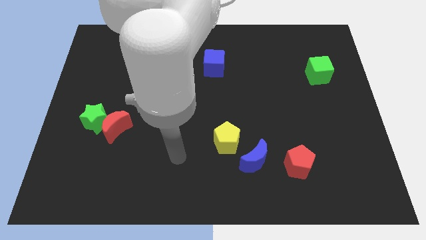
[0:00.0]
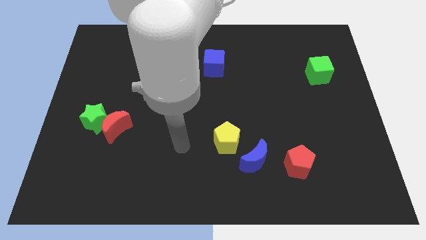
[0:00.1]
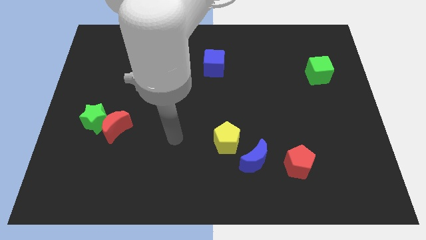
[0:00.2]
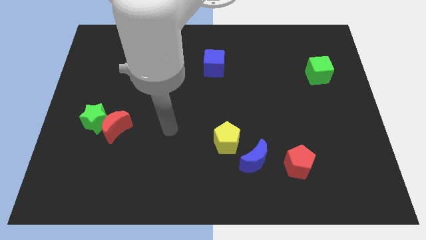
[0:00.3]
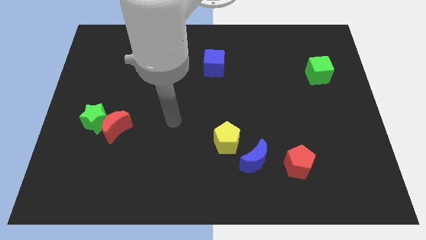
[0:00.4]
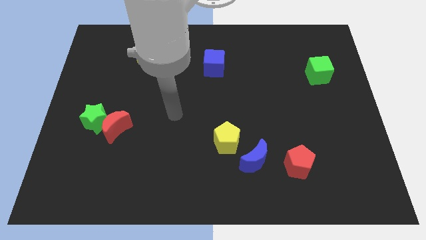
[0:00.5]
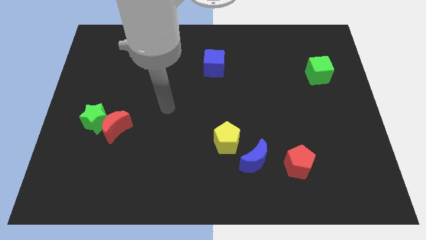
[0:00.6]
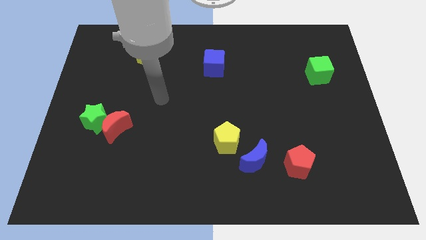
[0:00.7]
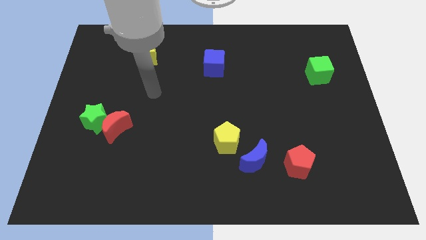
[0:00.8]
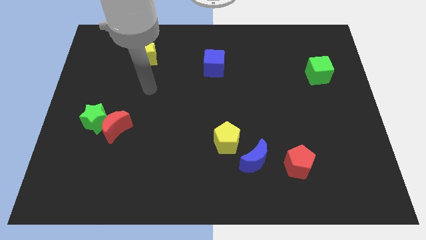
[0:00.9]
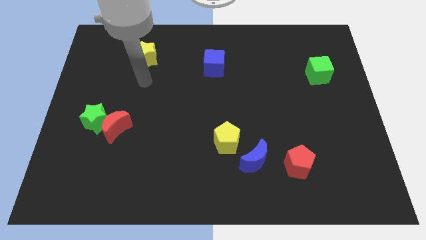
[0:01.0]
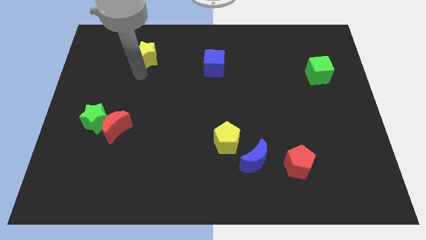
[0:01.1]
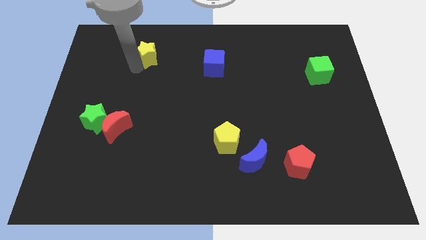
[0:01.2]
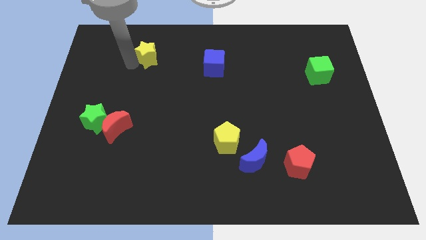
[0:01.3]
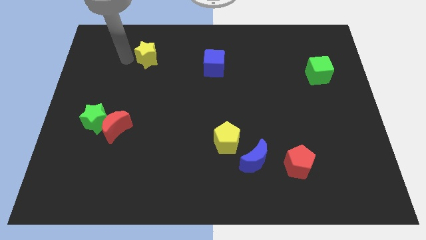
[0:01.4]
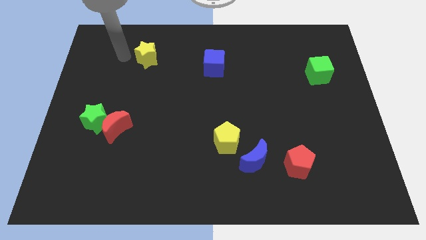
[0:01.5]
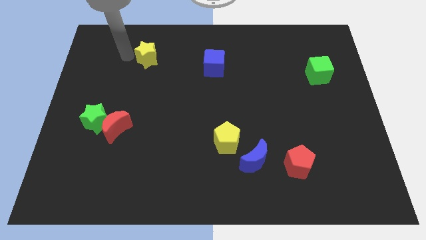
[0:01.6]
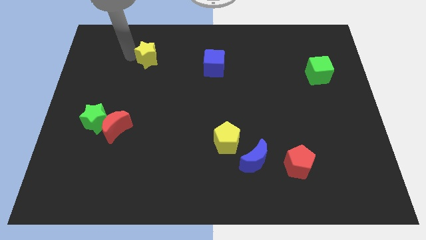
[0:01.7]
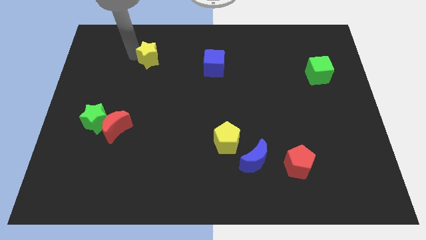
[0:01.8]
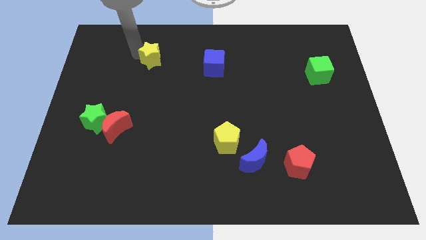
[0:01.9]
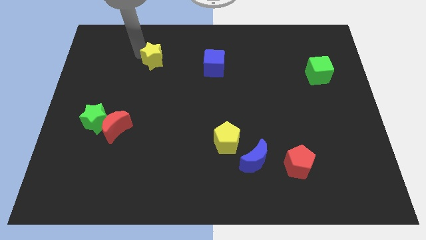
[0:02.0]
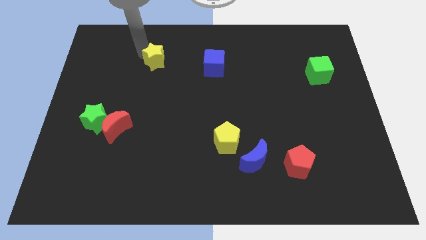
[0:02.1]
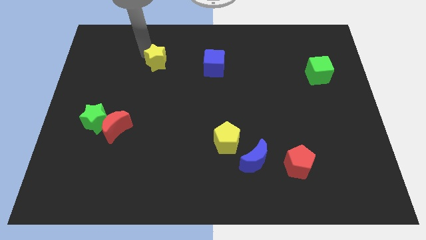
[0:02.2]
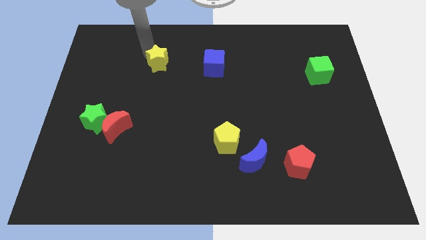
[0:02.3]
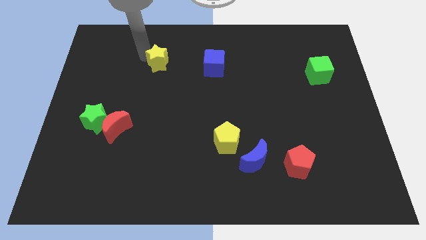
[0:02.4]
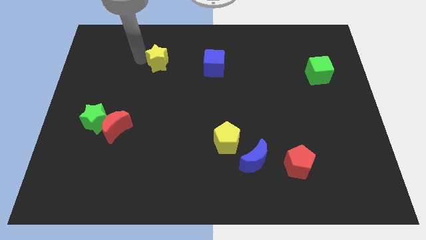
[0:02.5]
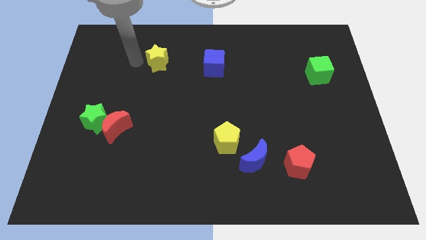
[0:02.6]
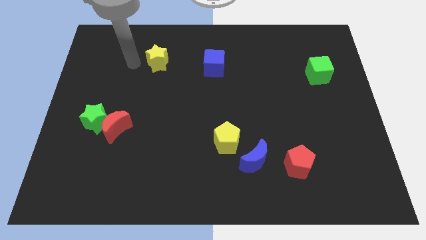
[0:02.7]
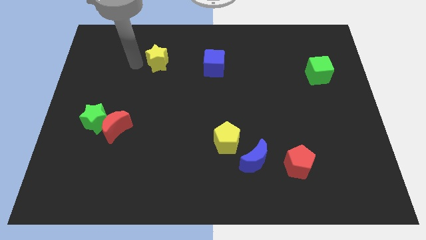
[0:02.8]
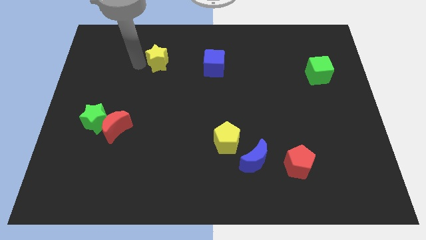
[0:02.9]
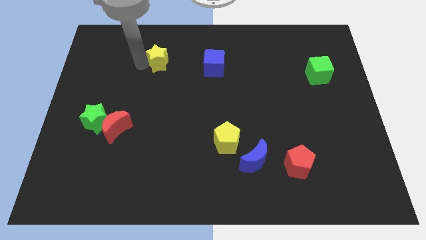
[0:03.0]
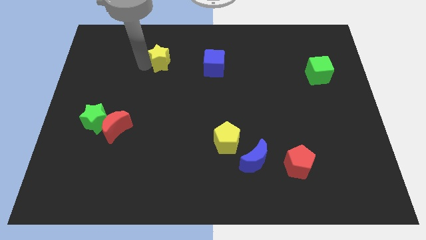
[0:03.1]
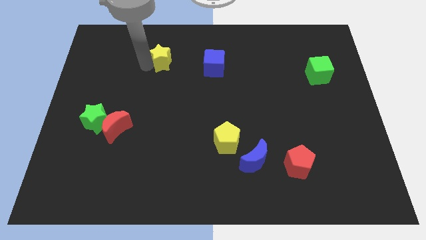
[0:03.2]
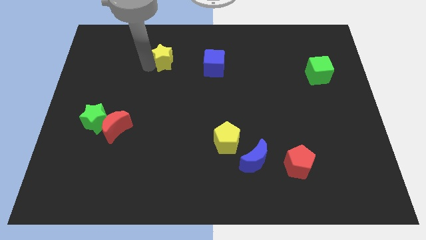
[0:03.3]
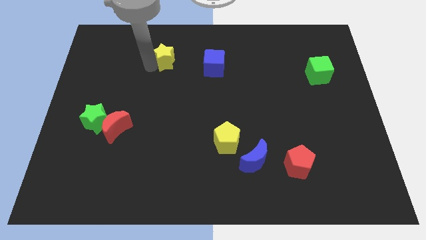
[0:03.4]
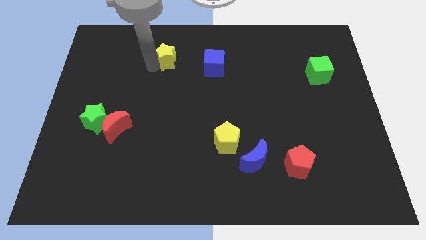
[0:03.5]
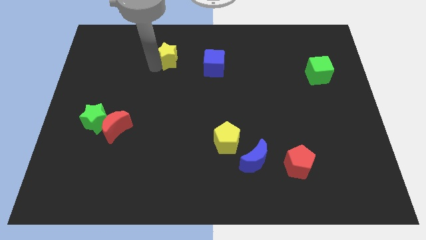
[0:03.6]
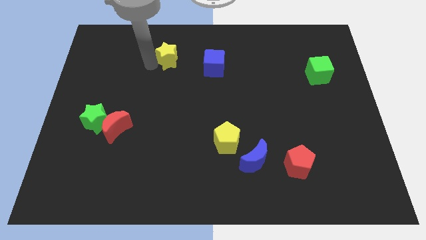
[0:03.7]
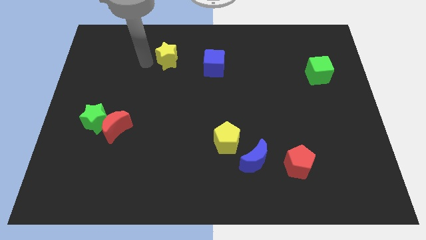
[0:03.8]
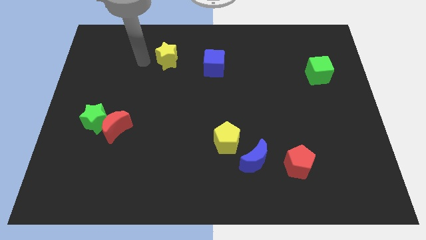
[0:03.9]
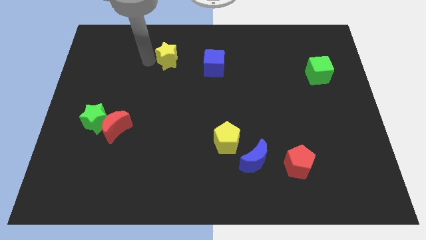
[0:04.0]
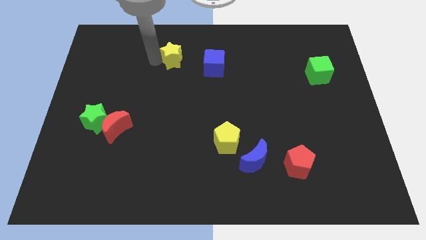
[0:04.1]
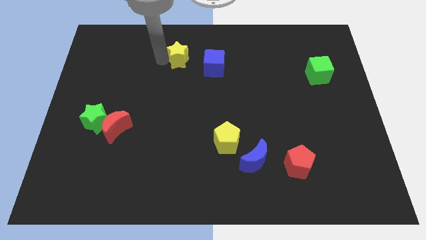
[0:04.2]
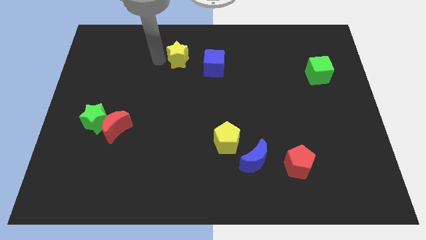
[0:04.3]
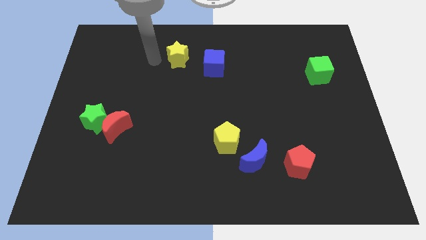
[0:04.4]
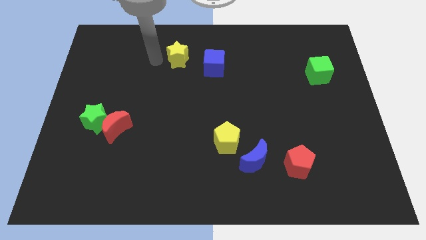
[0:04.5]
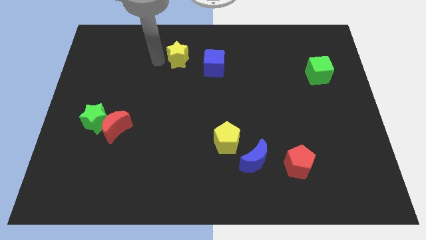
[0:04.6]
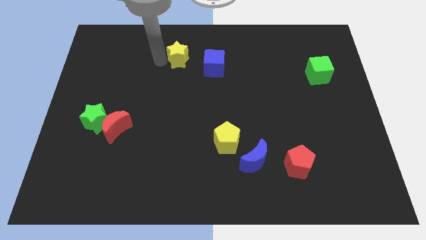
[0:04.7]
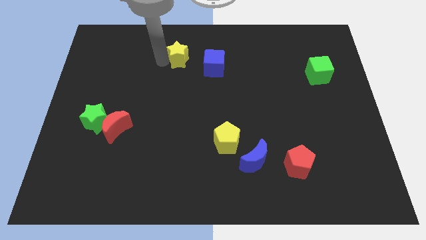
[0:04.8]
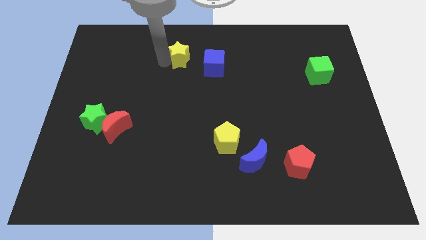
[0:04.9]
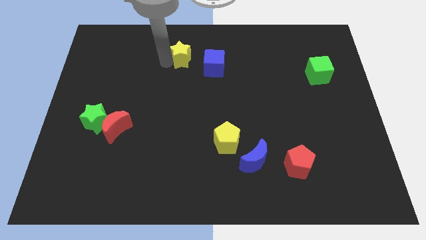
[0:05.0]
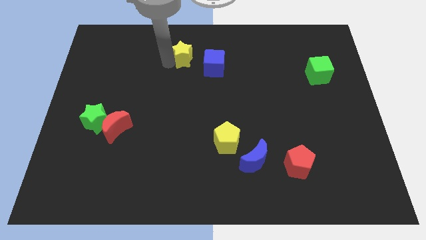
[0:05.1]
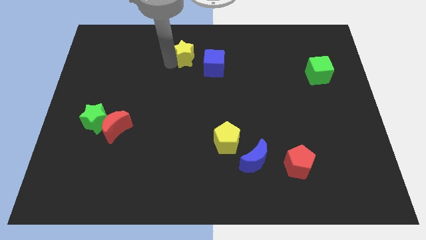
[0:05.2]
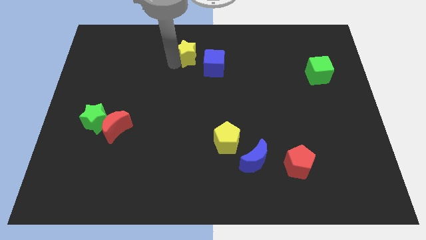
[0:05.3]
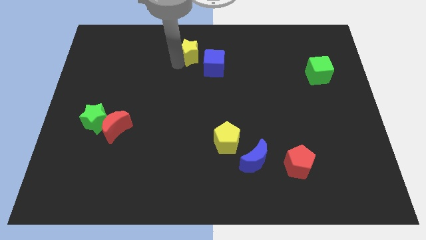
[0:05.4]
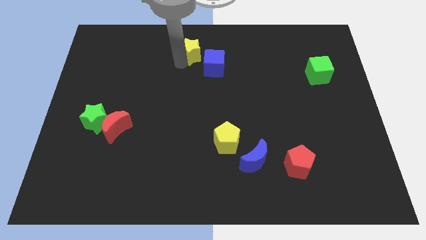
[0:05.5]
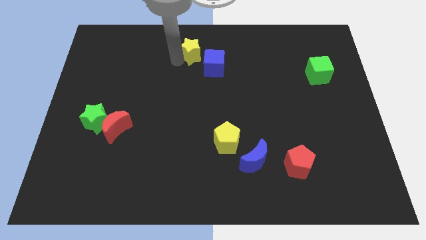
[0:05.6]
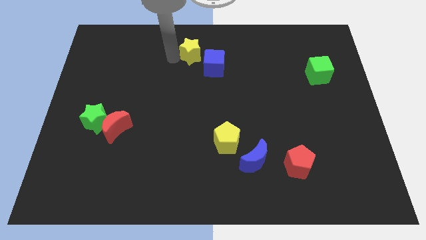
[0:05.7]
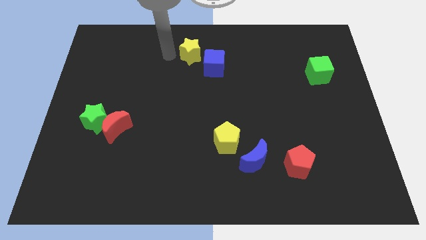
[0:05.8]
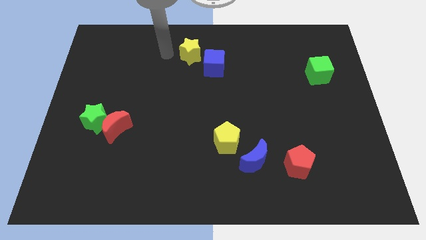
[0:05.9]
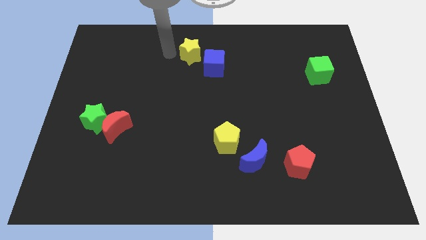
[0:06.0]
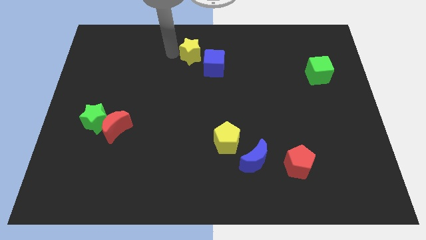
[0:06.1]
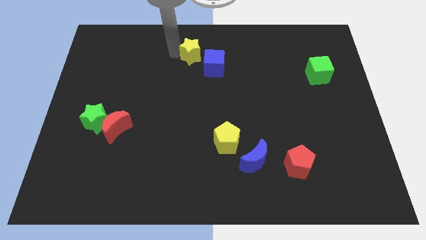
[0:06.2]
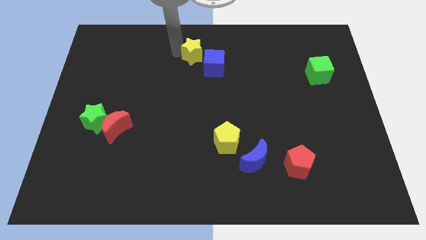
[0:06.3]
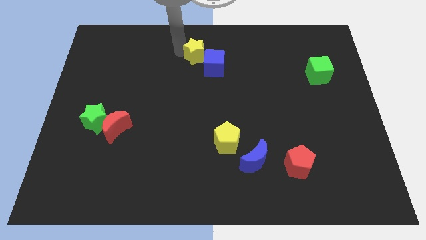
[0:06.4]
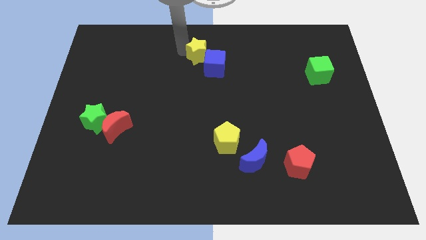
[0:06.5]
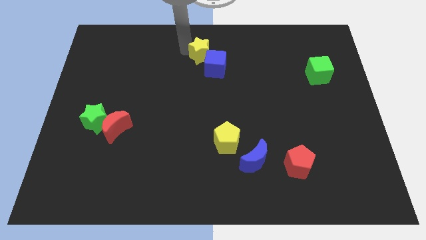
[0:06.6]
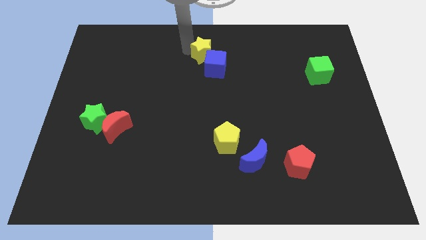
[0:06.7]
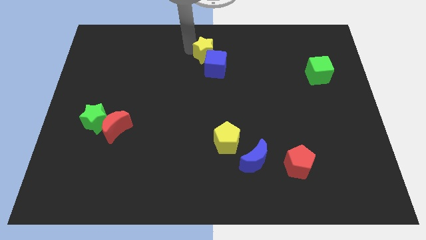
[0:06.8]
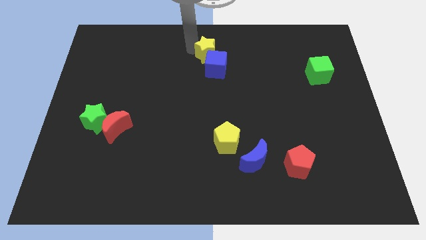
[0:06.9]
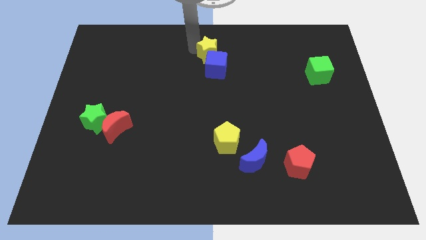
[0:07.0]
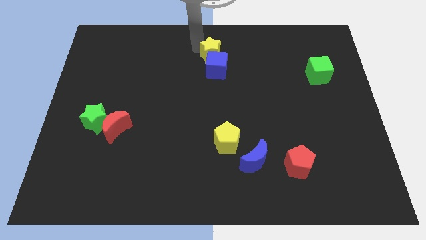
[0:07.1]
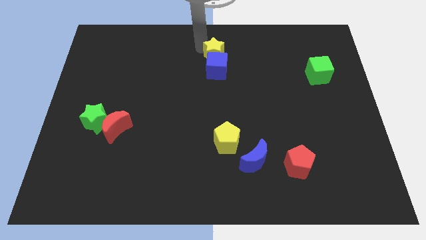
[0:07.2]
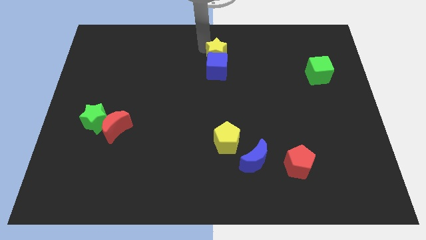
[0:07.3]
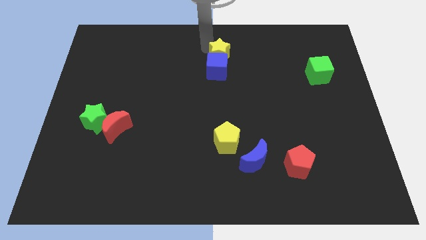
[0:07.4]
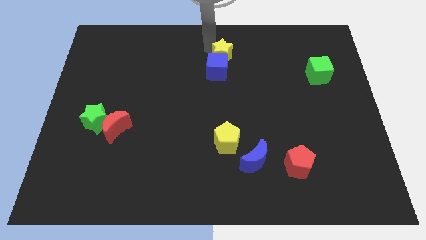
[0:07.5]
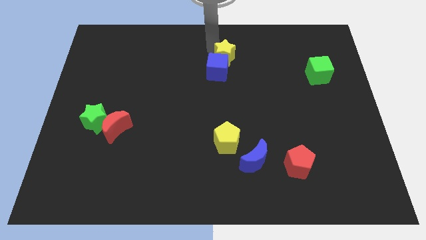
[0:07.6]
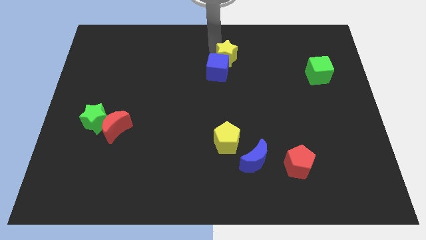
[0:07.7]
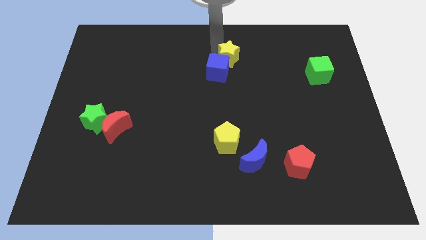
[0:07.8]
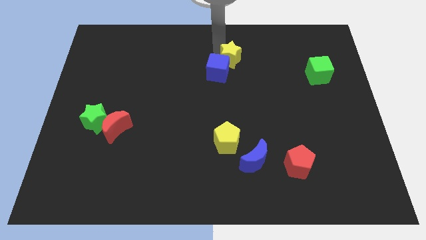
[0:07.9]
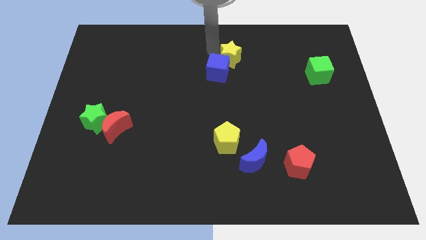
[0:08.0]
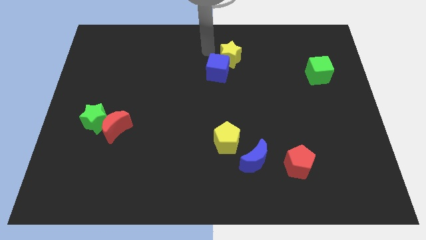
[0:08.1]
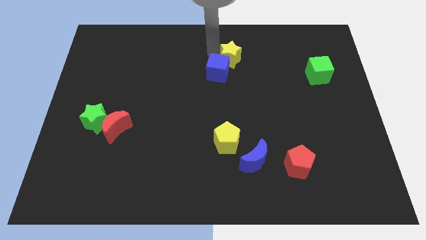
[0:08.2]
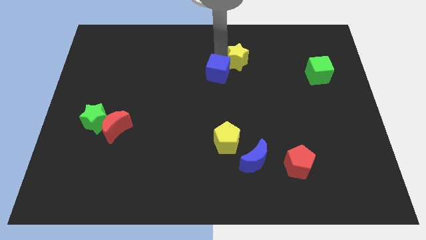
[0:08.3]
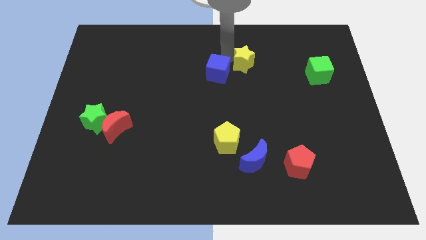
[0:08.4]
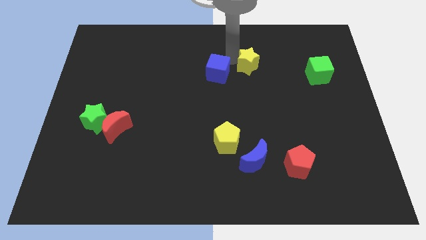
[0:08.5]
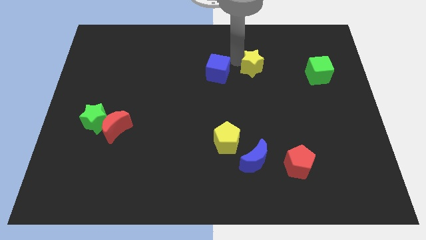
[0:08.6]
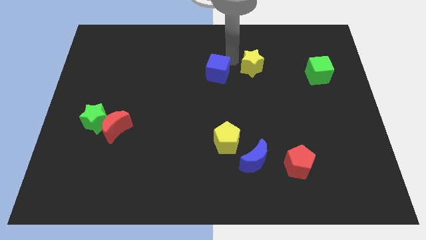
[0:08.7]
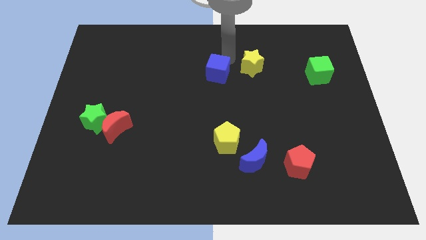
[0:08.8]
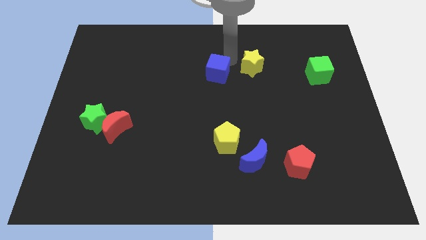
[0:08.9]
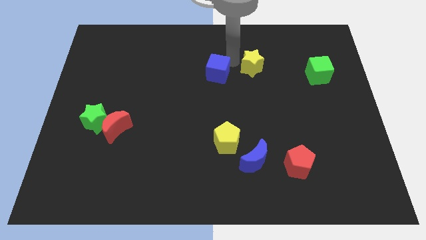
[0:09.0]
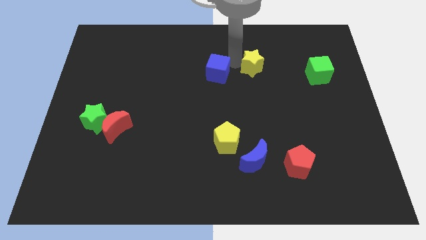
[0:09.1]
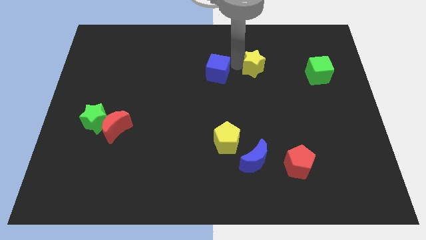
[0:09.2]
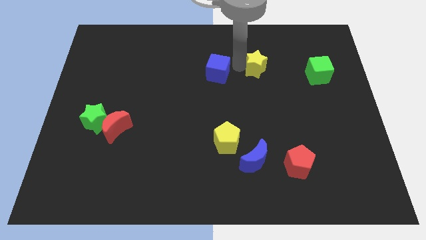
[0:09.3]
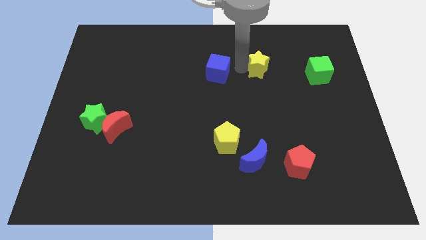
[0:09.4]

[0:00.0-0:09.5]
slide the yellow star to the left side of the green cube
